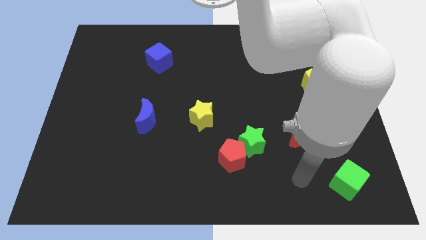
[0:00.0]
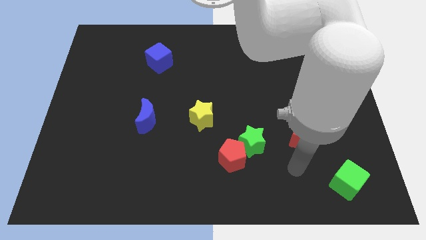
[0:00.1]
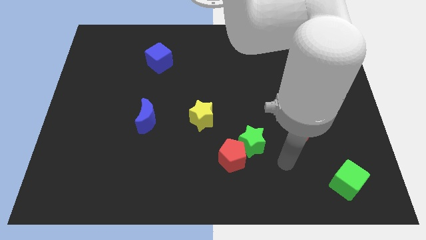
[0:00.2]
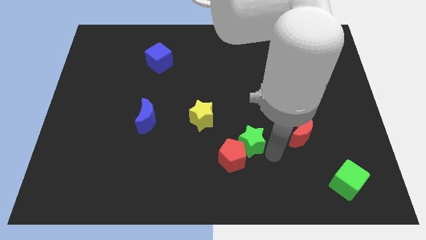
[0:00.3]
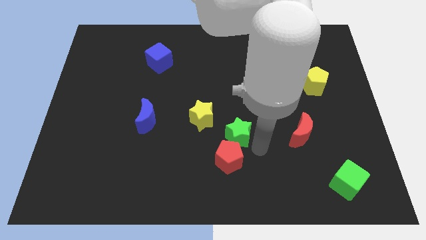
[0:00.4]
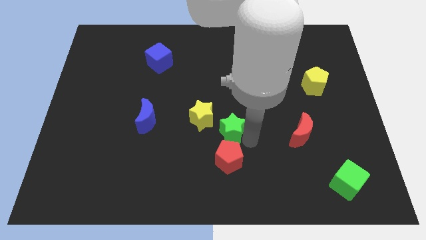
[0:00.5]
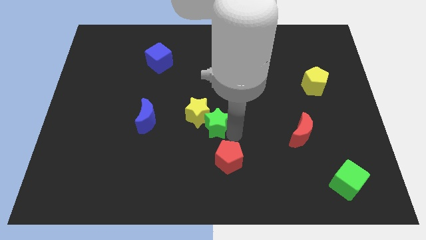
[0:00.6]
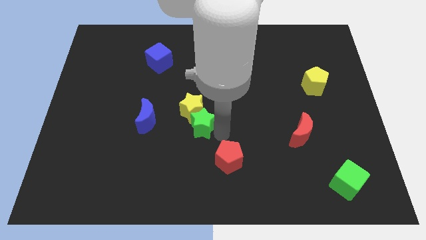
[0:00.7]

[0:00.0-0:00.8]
pull the red pentagon apart from the green star

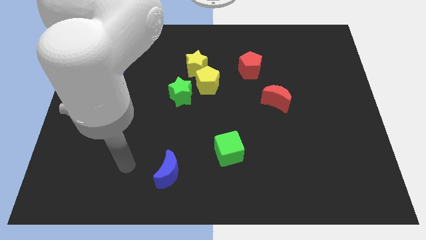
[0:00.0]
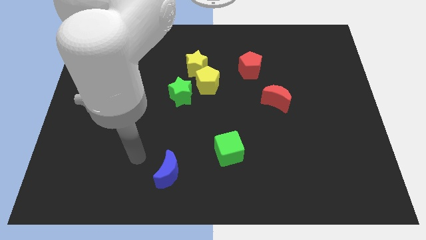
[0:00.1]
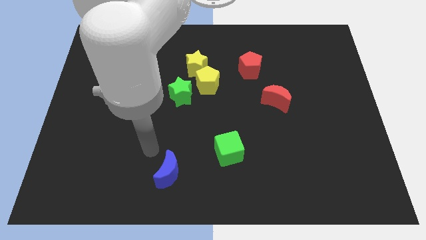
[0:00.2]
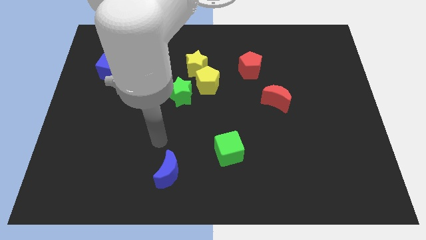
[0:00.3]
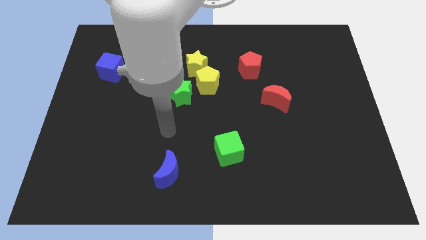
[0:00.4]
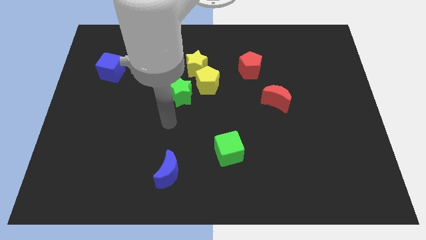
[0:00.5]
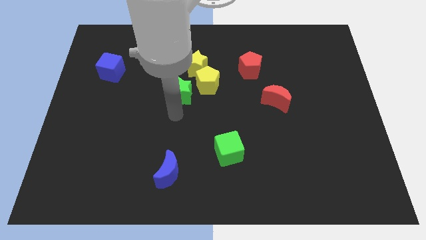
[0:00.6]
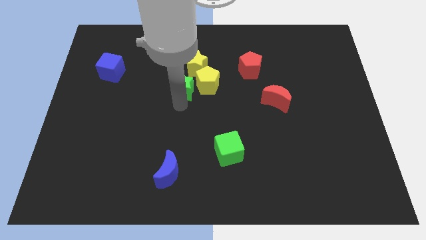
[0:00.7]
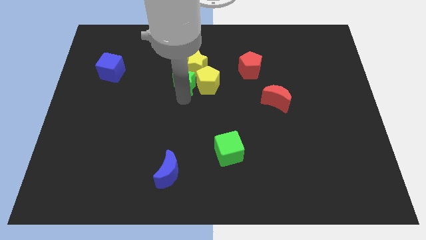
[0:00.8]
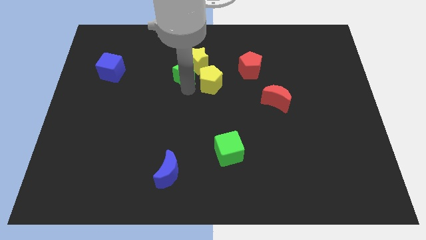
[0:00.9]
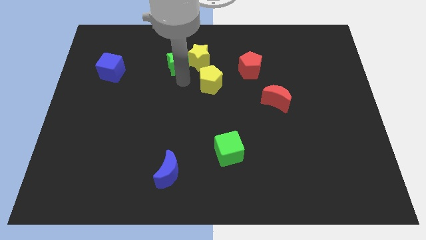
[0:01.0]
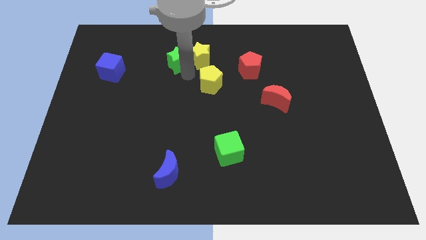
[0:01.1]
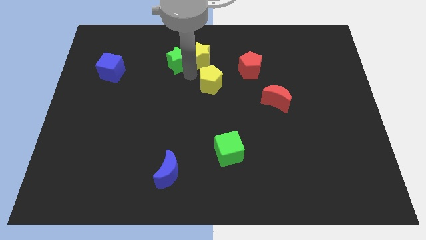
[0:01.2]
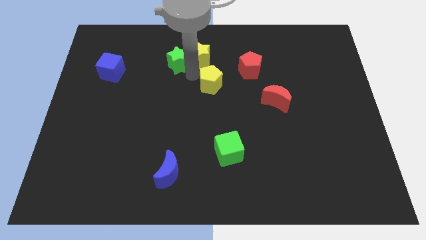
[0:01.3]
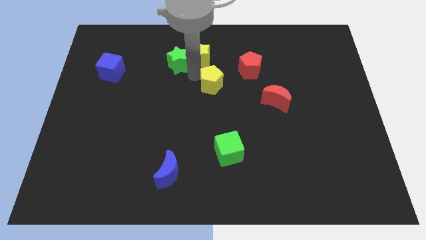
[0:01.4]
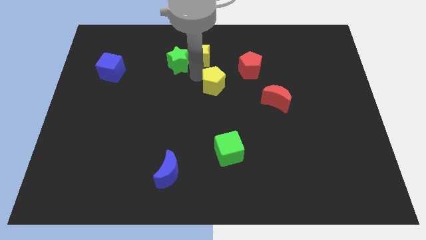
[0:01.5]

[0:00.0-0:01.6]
move the yellow pentagon away from the yellow star and green star

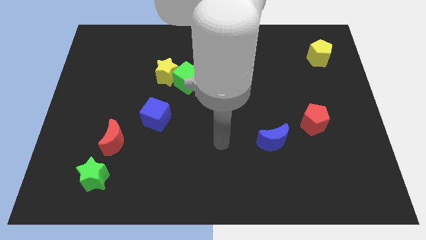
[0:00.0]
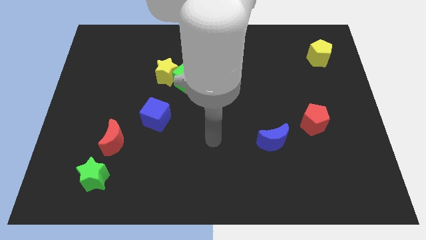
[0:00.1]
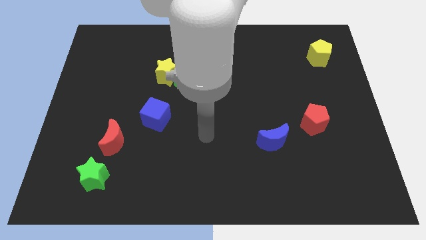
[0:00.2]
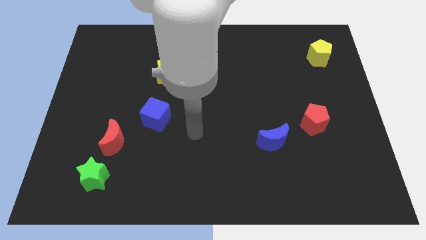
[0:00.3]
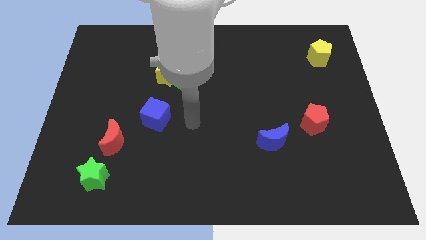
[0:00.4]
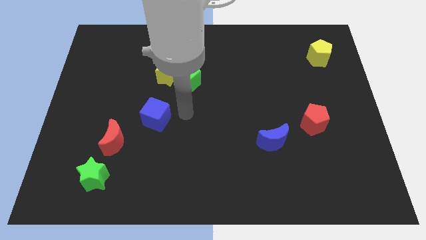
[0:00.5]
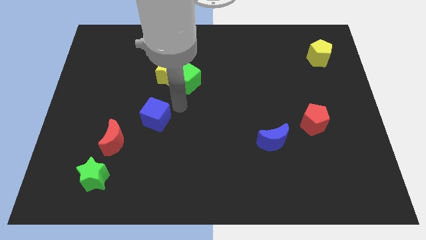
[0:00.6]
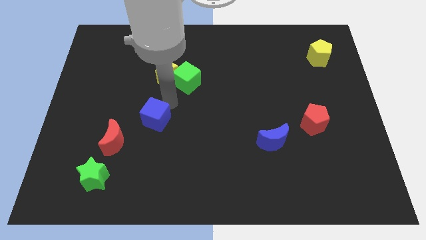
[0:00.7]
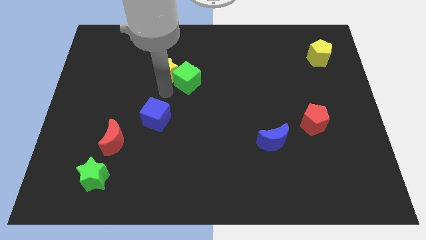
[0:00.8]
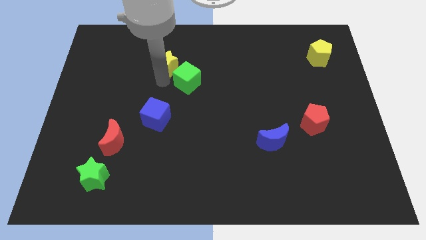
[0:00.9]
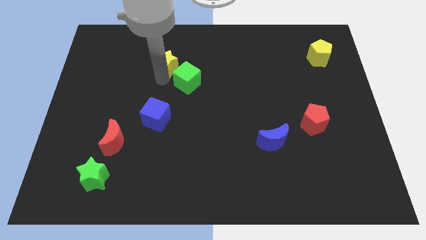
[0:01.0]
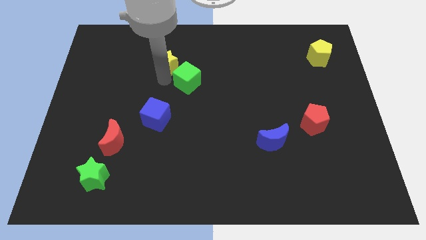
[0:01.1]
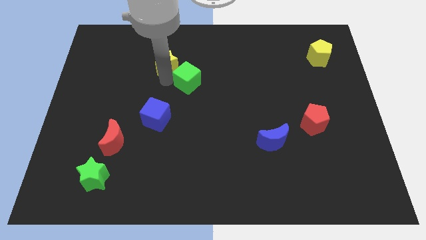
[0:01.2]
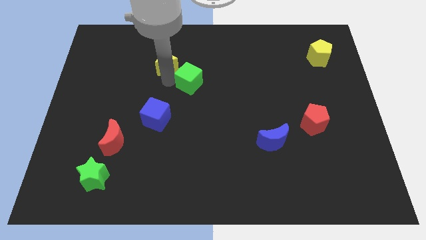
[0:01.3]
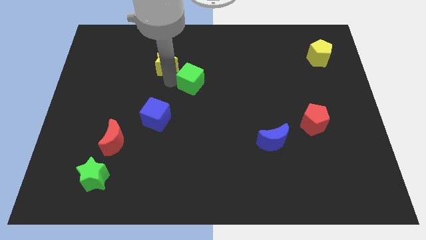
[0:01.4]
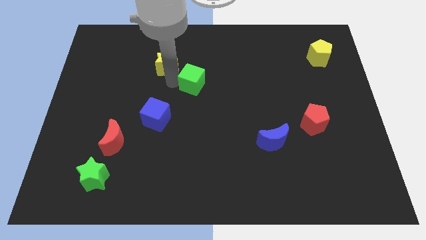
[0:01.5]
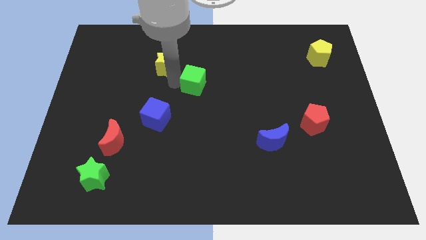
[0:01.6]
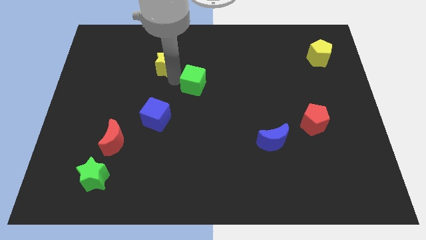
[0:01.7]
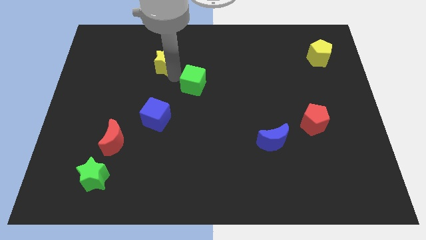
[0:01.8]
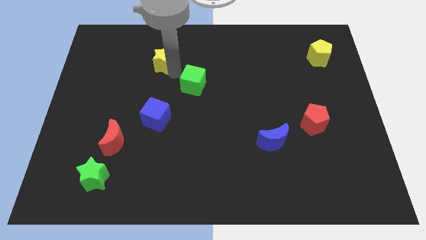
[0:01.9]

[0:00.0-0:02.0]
move the green cube away from the yellow star

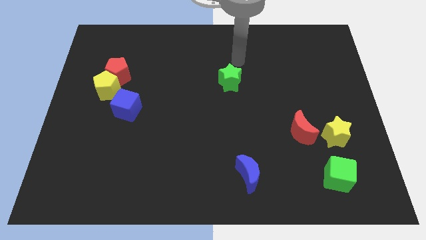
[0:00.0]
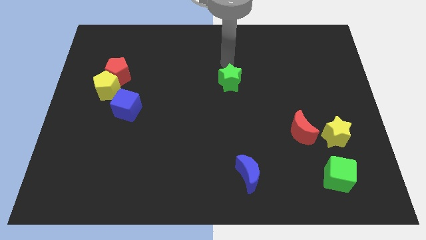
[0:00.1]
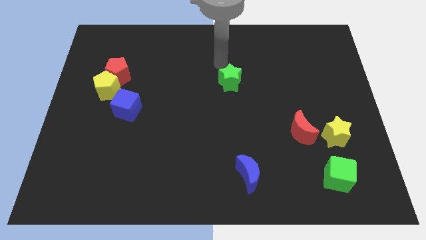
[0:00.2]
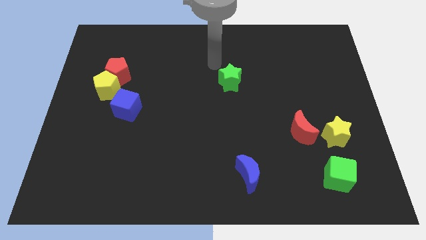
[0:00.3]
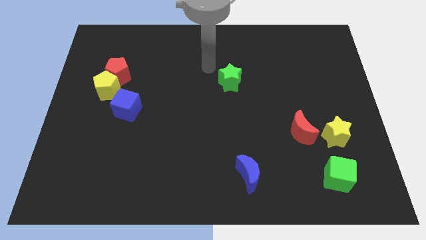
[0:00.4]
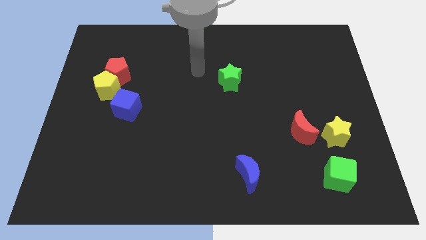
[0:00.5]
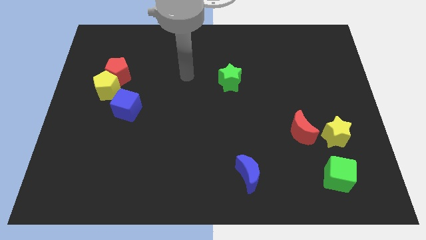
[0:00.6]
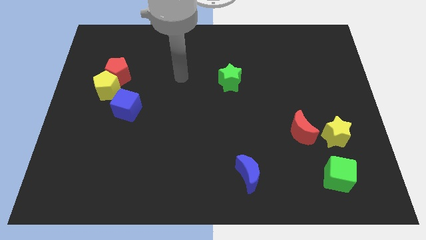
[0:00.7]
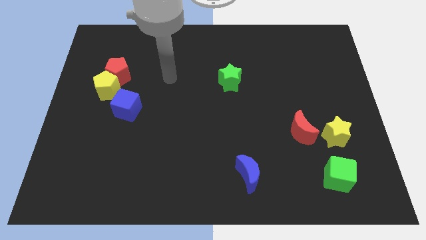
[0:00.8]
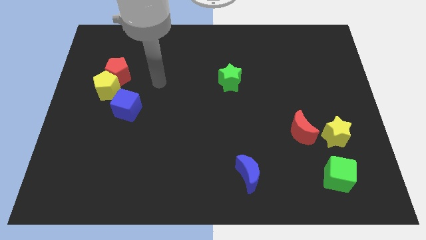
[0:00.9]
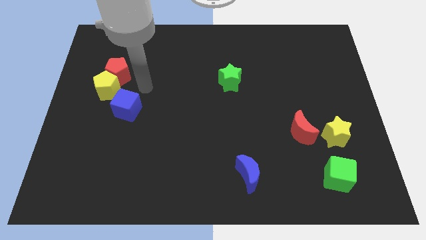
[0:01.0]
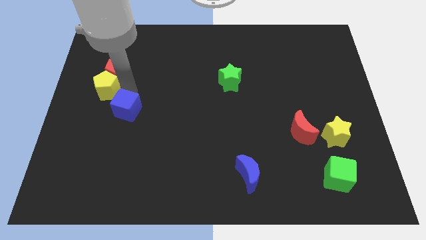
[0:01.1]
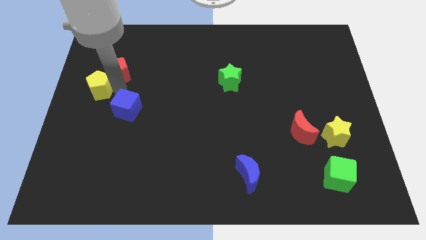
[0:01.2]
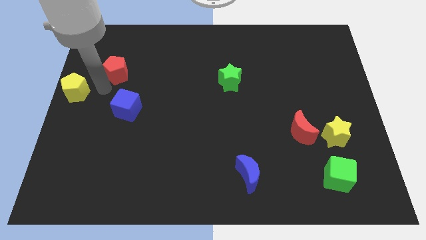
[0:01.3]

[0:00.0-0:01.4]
pull the red pentagon apart from the yellow pentagon

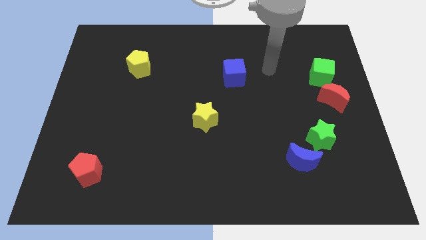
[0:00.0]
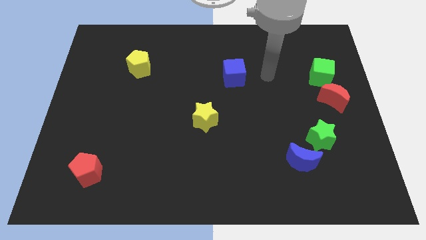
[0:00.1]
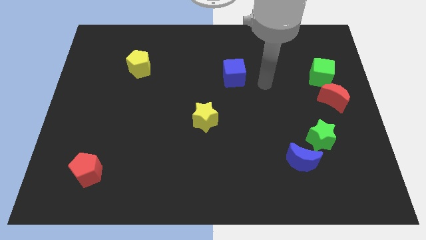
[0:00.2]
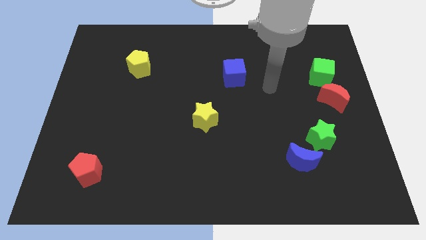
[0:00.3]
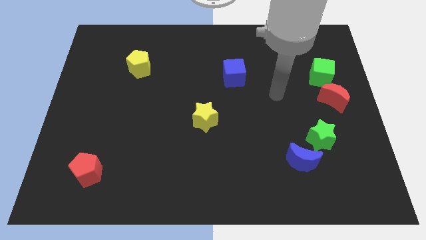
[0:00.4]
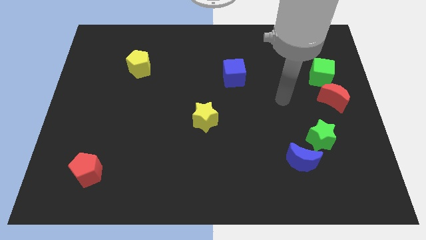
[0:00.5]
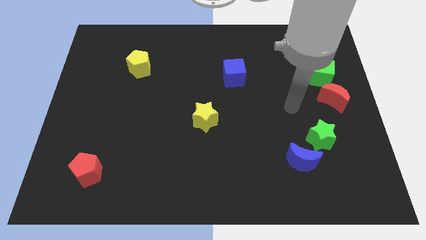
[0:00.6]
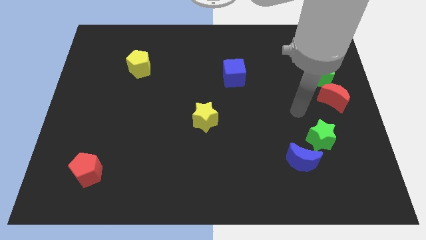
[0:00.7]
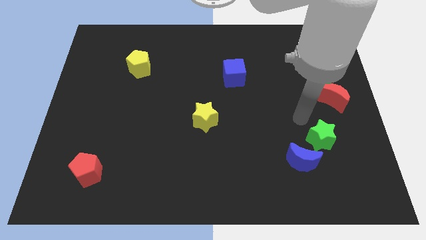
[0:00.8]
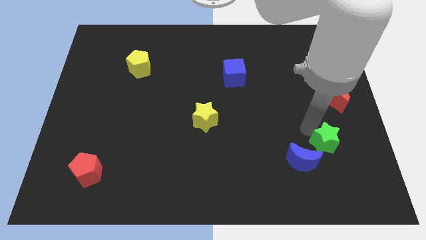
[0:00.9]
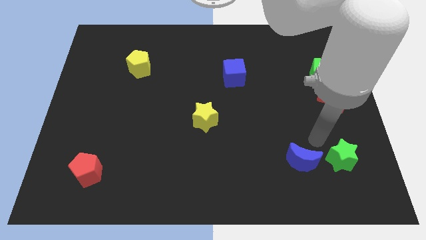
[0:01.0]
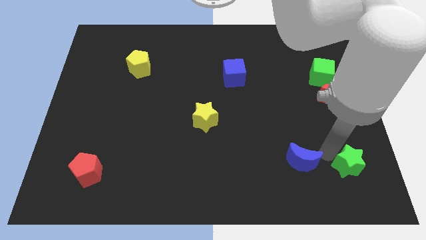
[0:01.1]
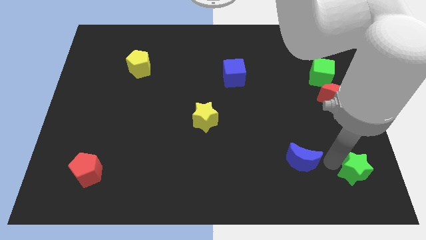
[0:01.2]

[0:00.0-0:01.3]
separate the blue moon from the green star

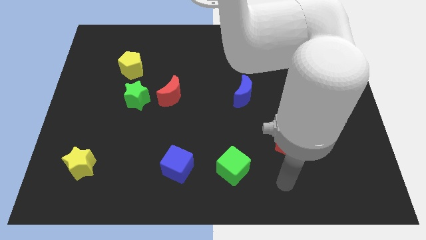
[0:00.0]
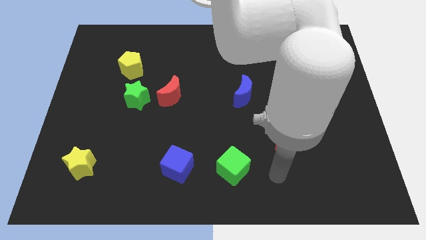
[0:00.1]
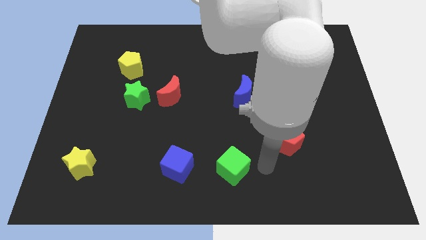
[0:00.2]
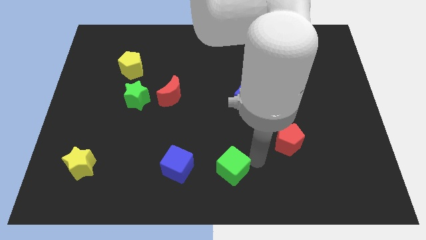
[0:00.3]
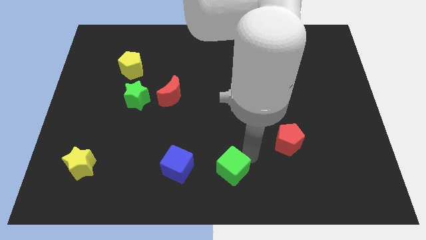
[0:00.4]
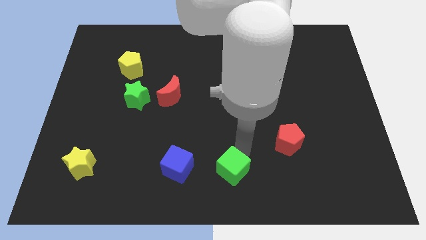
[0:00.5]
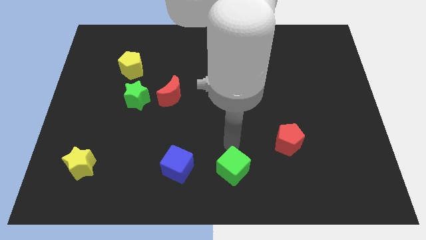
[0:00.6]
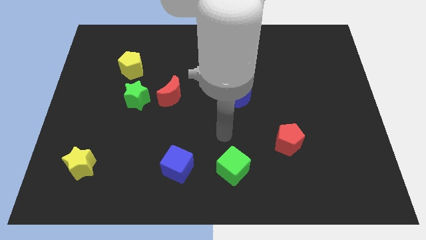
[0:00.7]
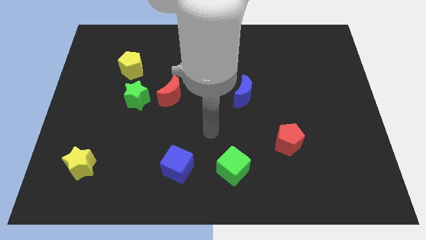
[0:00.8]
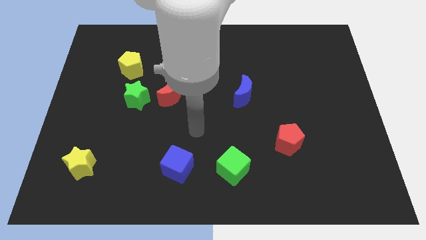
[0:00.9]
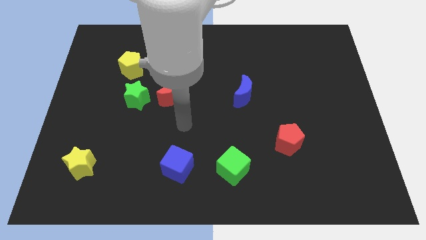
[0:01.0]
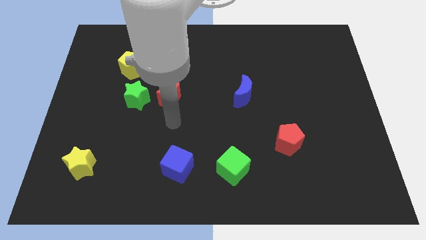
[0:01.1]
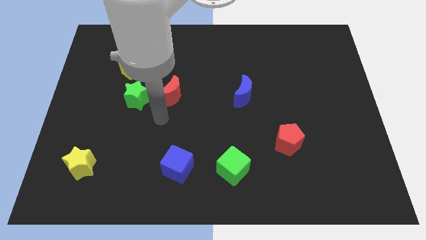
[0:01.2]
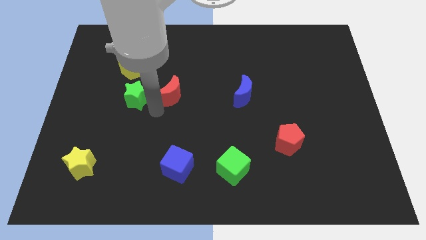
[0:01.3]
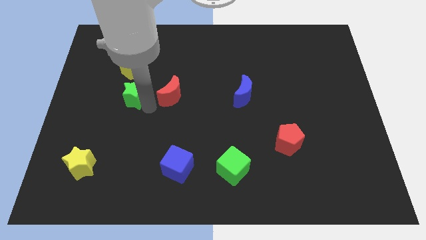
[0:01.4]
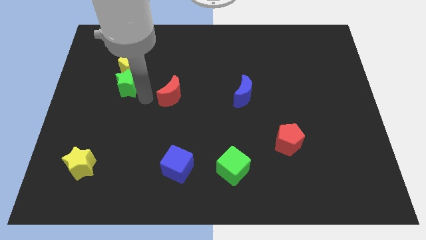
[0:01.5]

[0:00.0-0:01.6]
move the red moon away from the green star

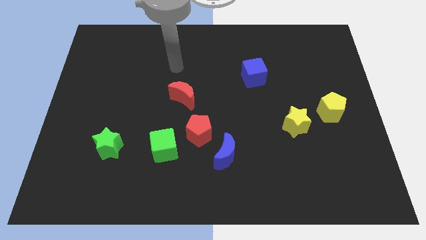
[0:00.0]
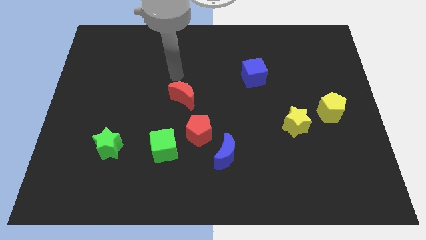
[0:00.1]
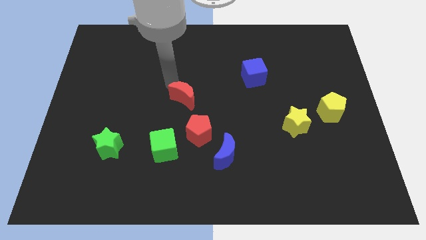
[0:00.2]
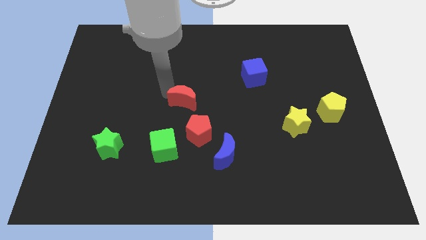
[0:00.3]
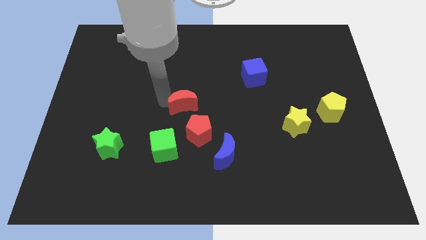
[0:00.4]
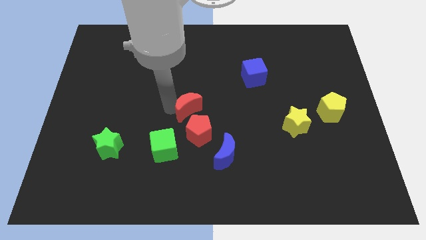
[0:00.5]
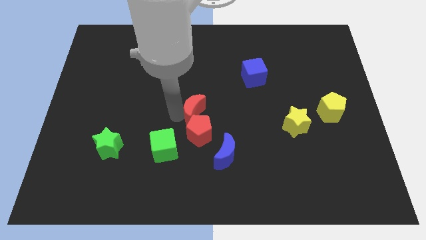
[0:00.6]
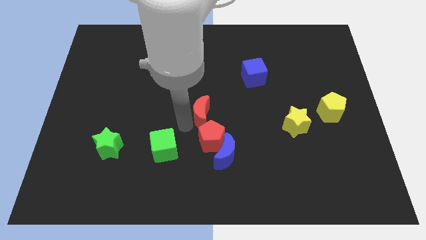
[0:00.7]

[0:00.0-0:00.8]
pull the green cube apart from the red pentagon
